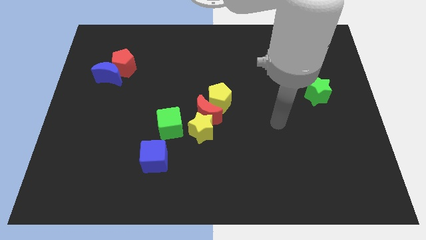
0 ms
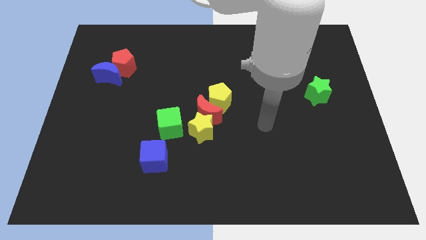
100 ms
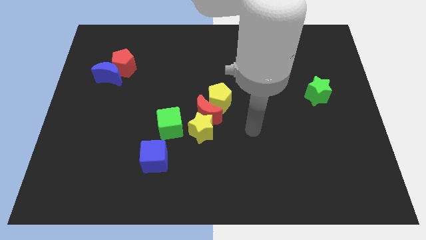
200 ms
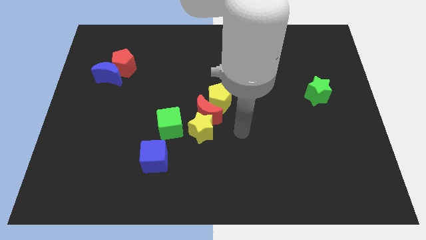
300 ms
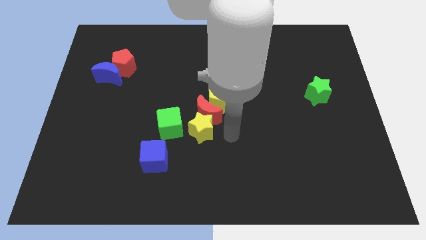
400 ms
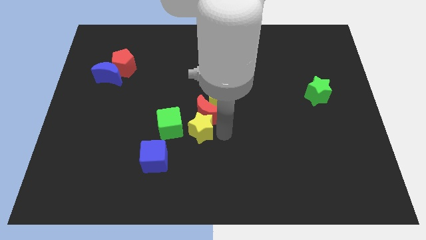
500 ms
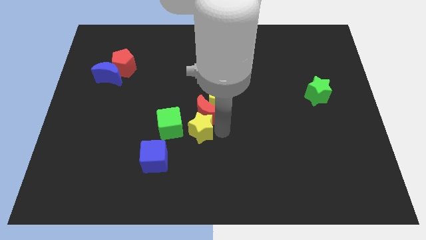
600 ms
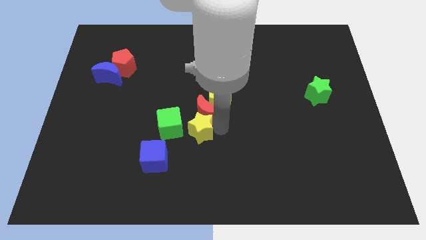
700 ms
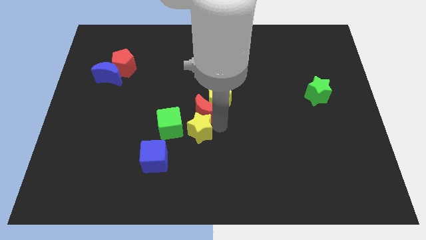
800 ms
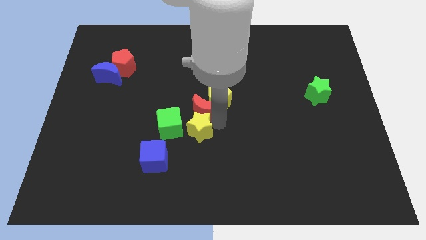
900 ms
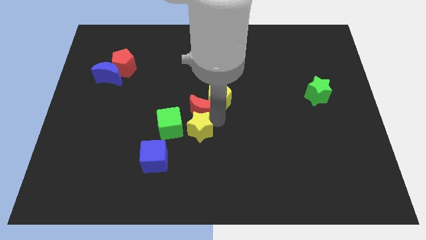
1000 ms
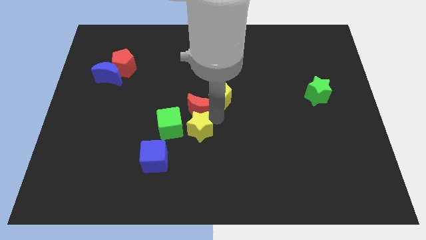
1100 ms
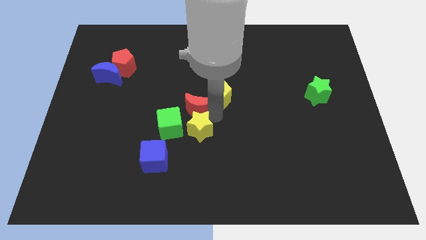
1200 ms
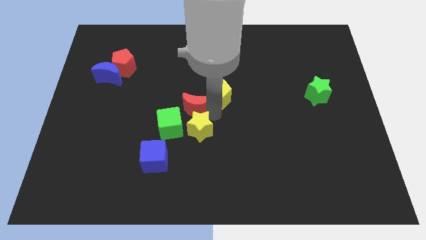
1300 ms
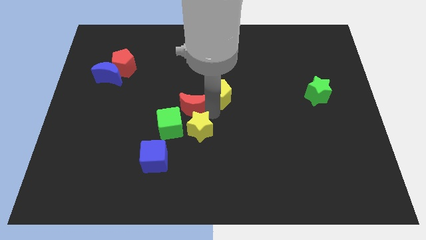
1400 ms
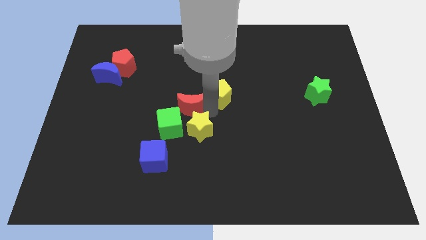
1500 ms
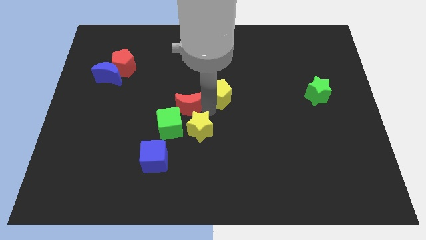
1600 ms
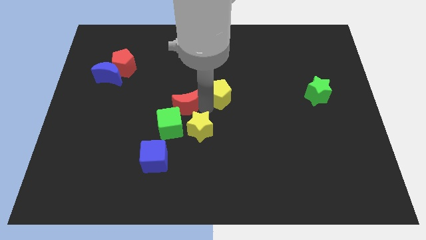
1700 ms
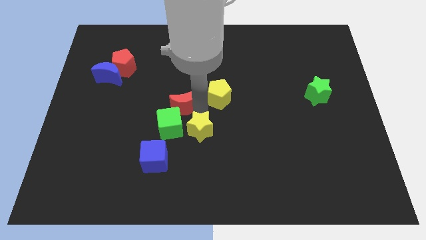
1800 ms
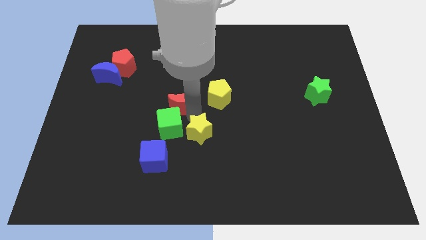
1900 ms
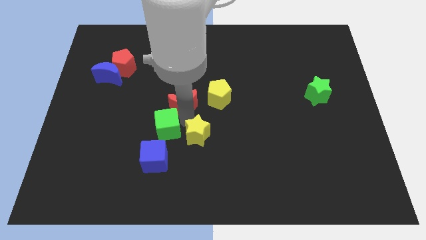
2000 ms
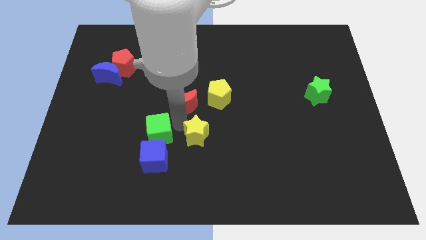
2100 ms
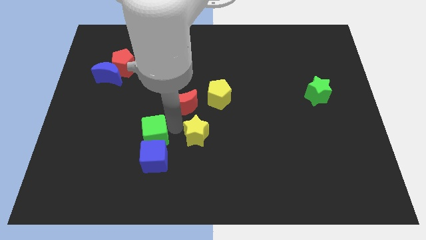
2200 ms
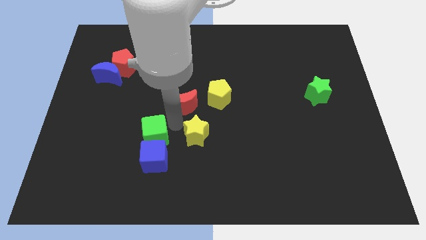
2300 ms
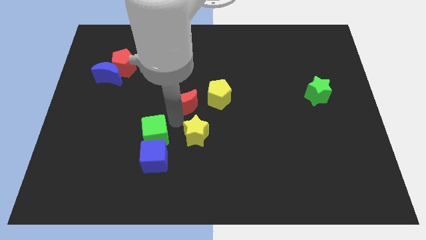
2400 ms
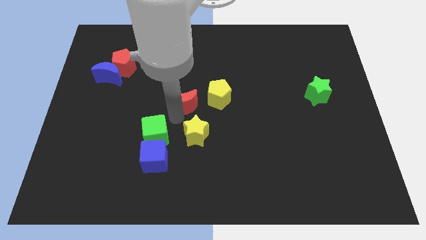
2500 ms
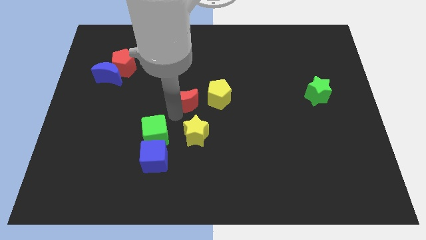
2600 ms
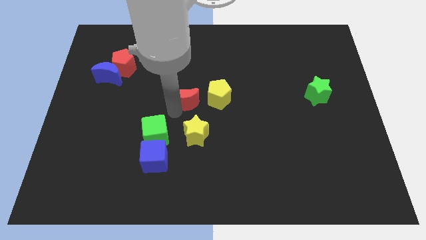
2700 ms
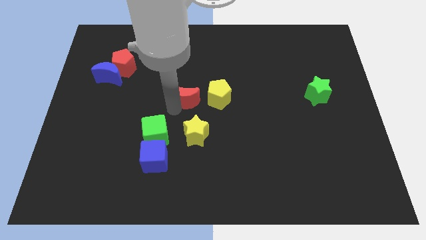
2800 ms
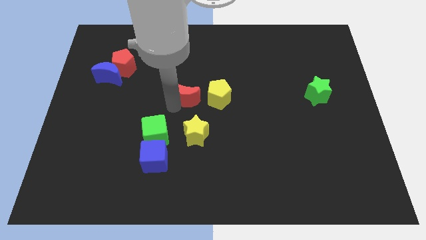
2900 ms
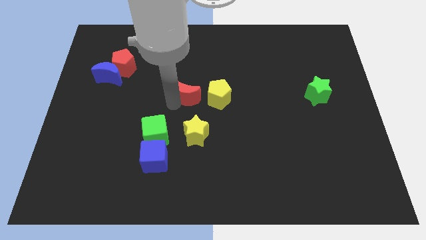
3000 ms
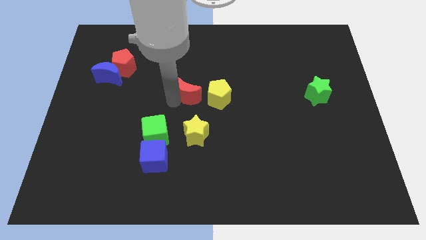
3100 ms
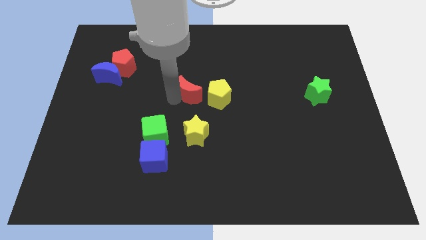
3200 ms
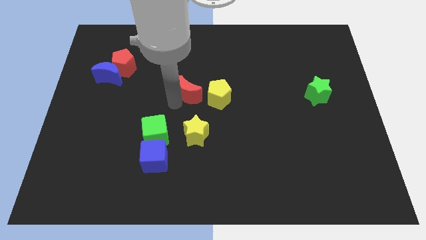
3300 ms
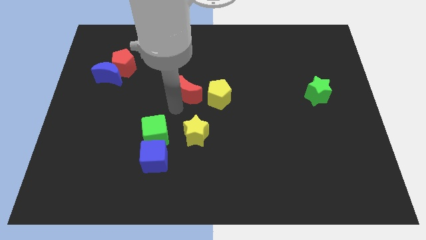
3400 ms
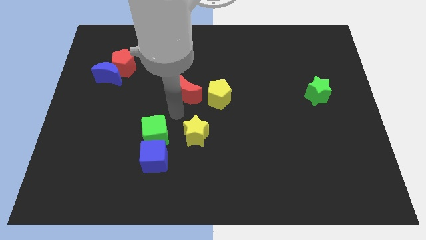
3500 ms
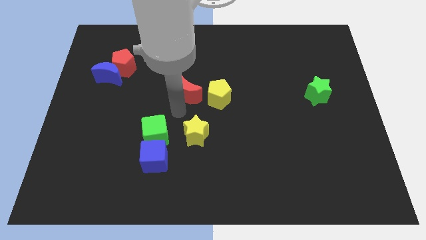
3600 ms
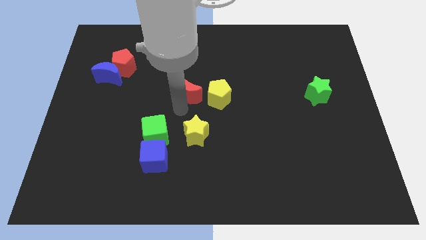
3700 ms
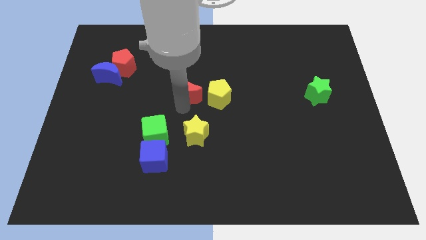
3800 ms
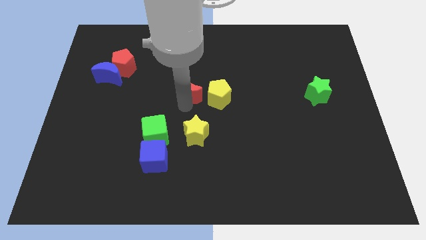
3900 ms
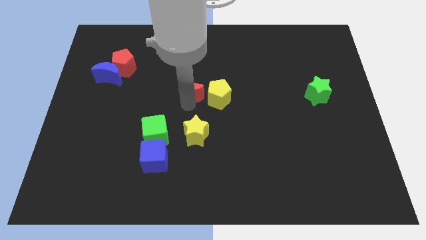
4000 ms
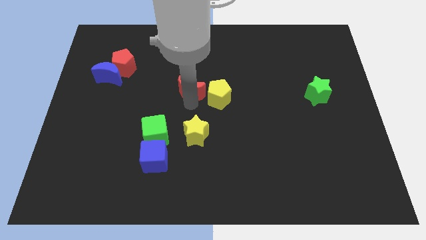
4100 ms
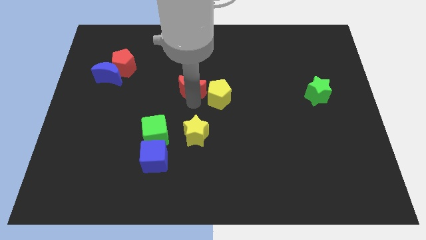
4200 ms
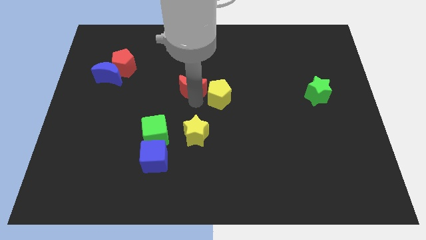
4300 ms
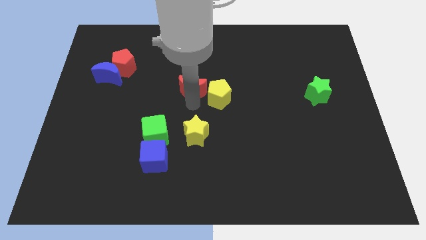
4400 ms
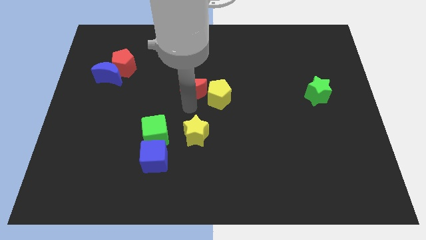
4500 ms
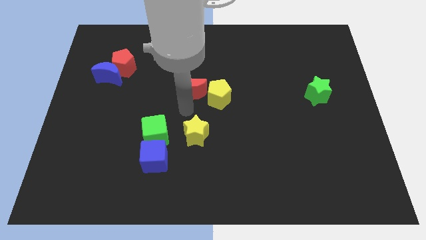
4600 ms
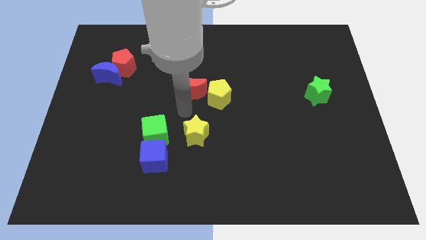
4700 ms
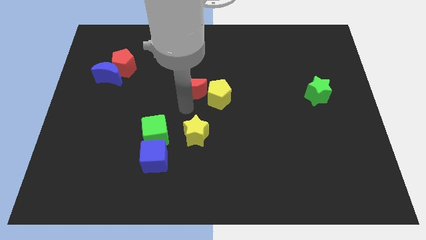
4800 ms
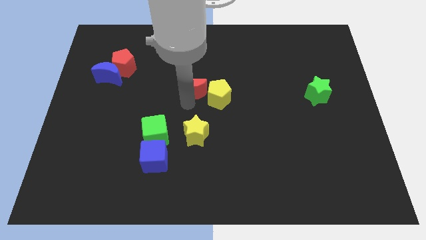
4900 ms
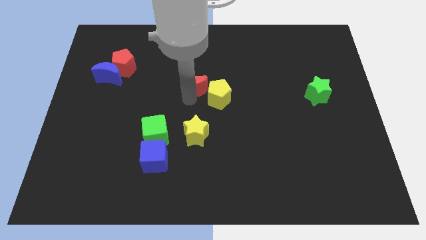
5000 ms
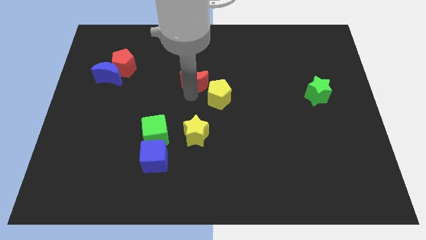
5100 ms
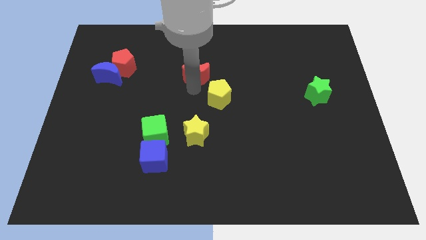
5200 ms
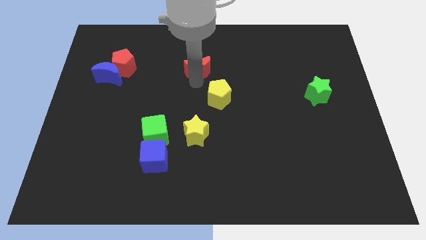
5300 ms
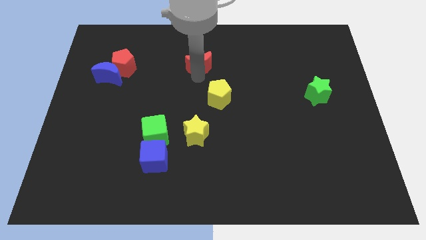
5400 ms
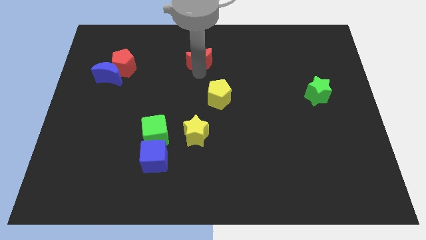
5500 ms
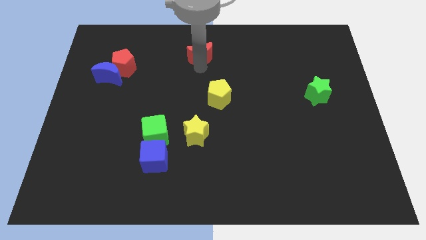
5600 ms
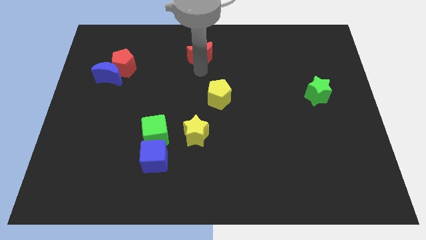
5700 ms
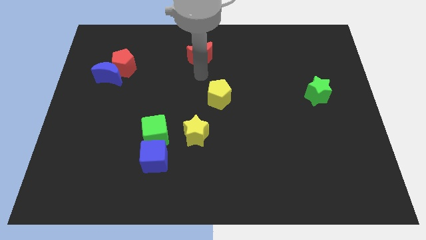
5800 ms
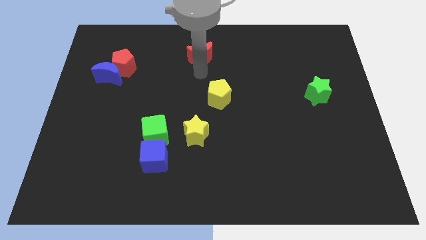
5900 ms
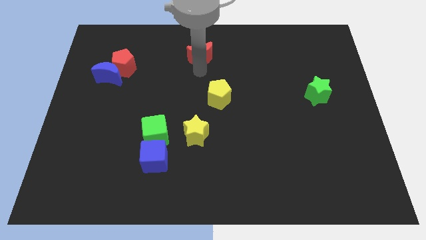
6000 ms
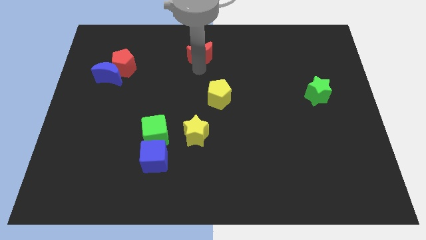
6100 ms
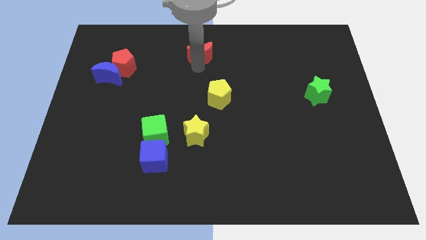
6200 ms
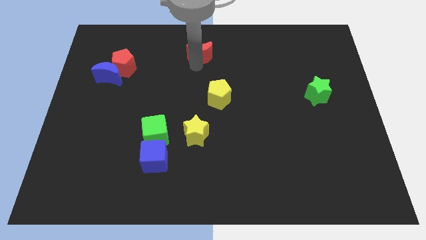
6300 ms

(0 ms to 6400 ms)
push the red moon to the towards your base

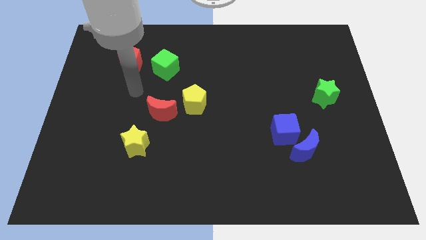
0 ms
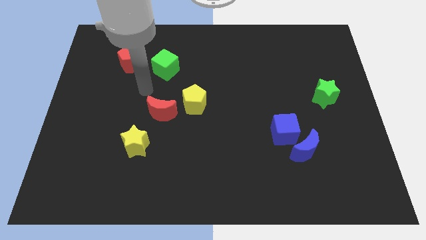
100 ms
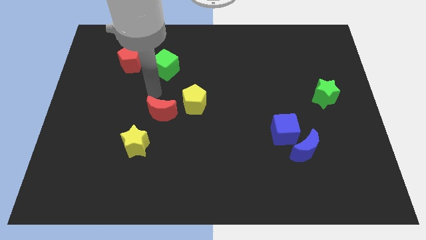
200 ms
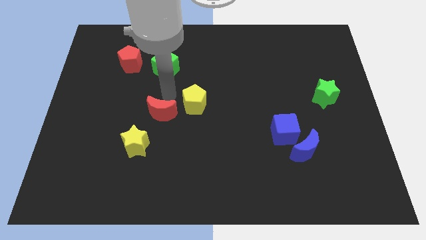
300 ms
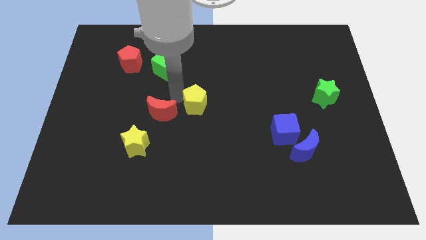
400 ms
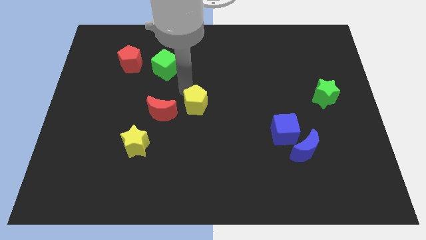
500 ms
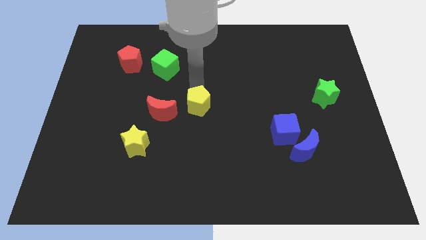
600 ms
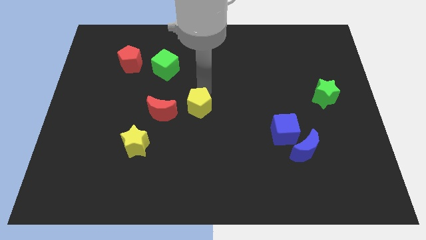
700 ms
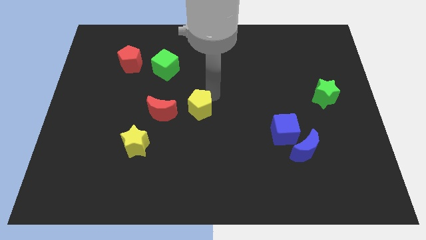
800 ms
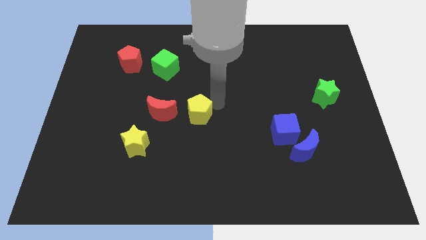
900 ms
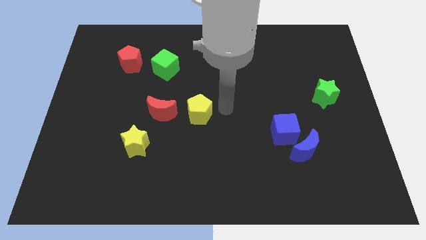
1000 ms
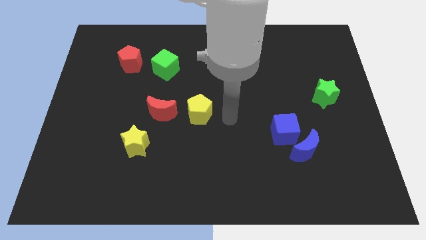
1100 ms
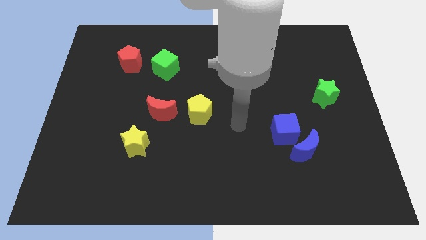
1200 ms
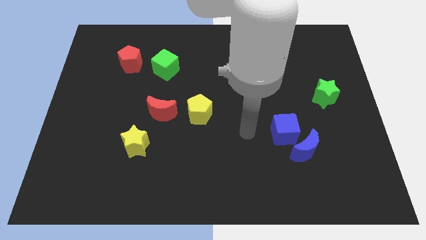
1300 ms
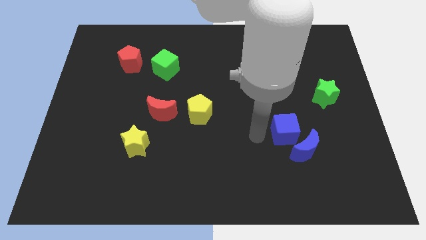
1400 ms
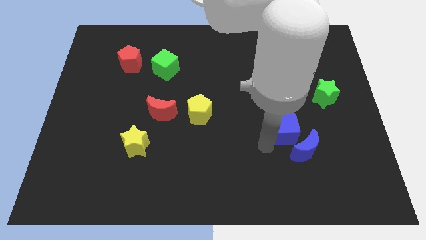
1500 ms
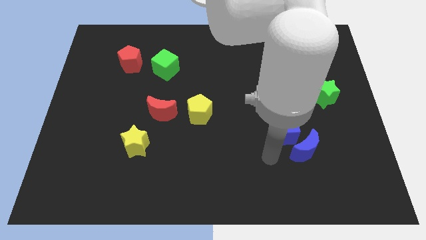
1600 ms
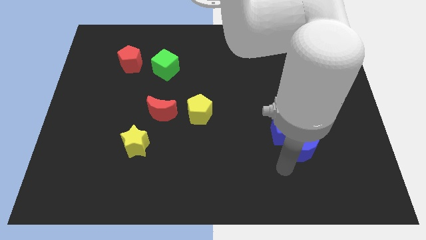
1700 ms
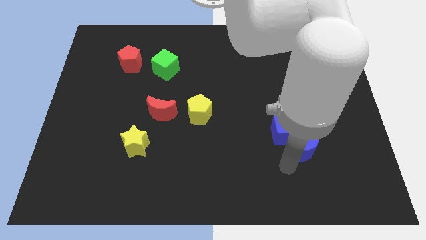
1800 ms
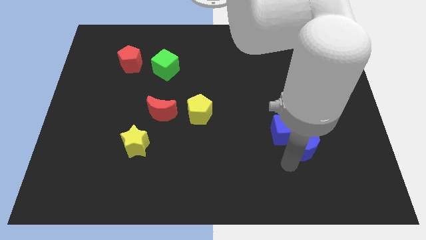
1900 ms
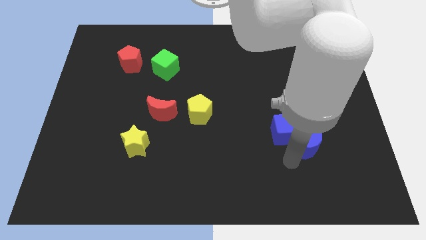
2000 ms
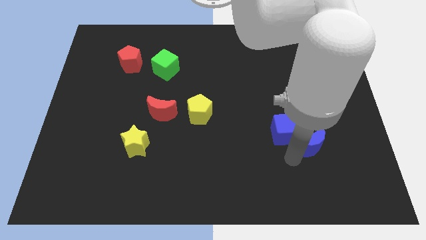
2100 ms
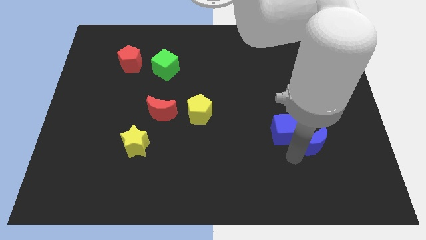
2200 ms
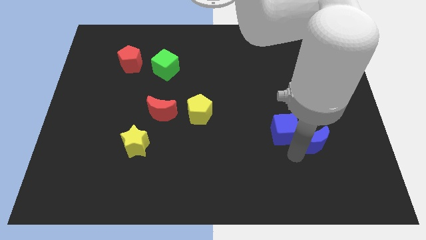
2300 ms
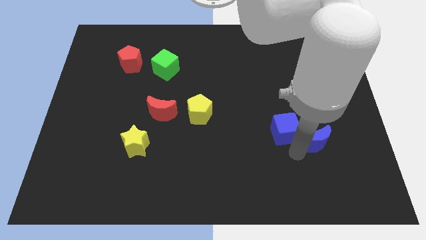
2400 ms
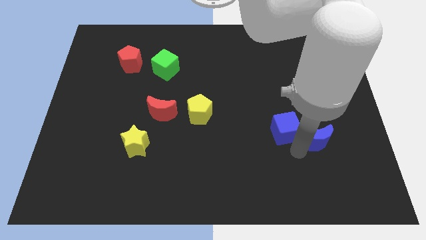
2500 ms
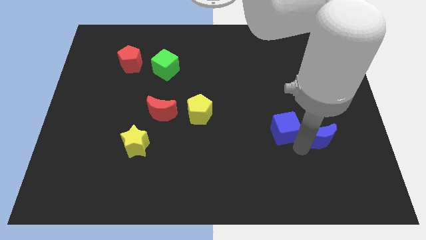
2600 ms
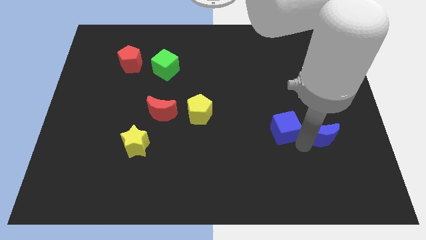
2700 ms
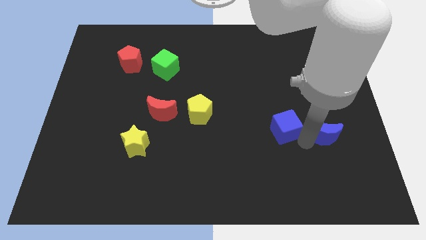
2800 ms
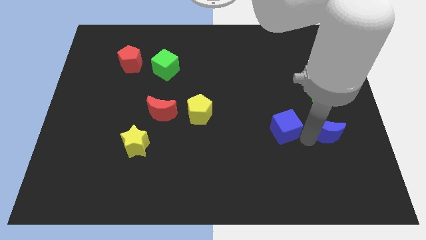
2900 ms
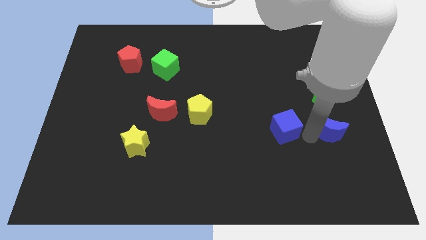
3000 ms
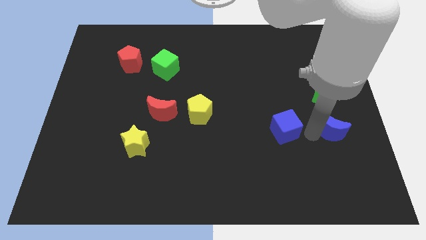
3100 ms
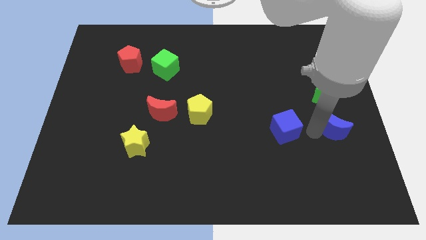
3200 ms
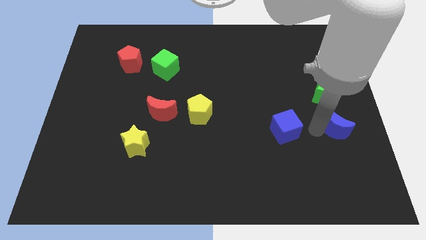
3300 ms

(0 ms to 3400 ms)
push the blue moon to the right side of the board
